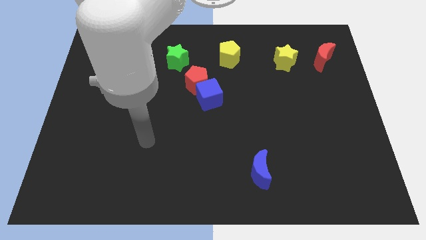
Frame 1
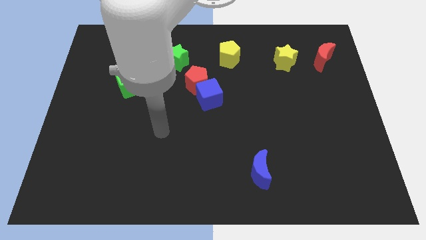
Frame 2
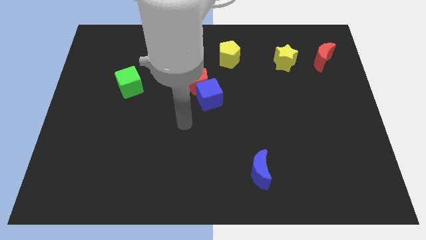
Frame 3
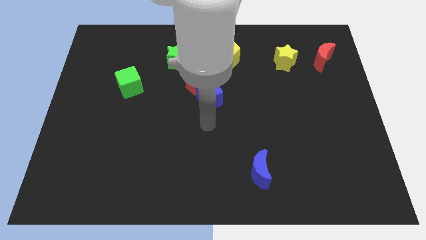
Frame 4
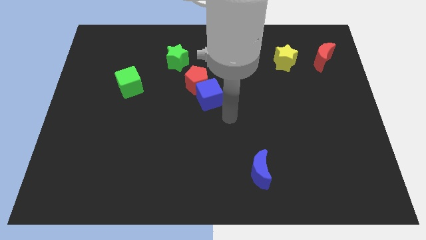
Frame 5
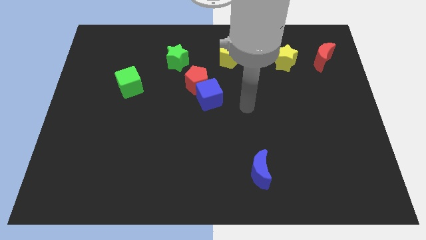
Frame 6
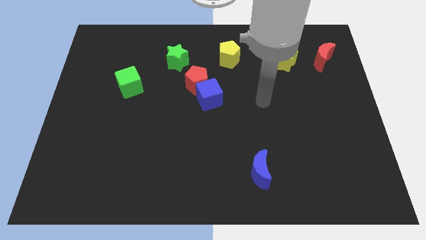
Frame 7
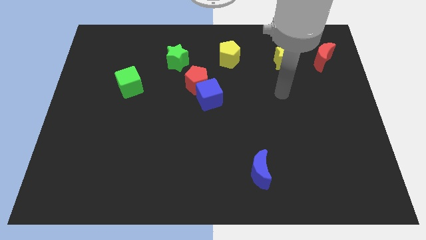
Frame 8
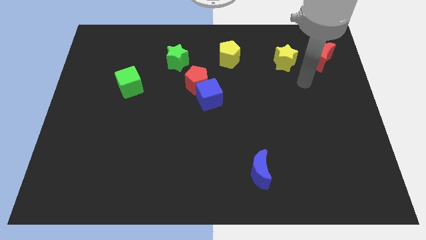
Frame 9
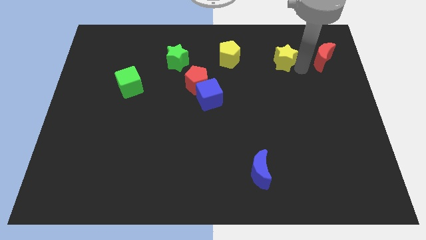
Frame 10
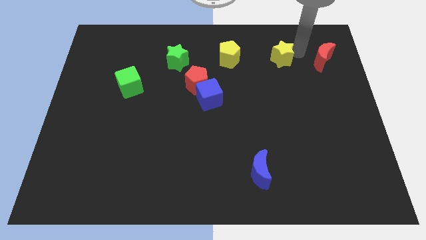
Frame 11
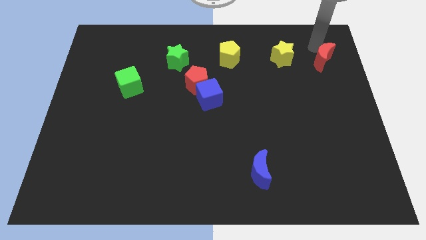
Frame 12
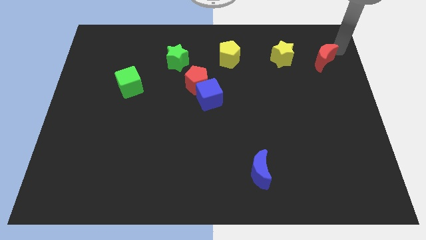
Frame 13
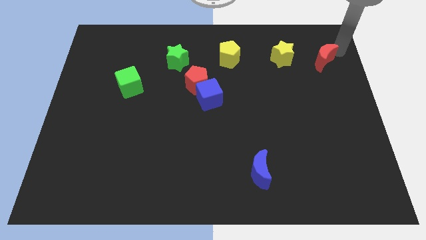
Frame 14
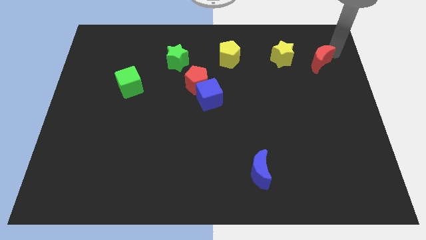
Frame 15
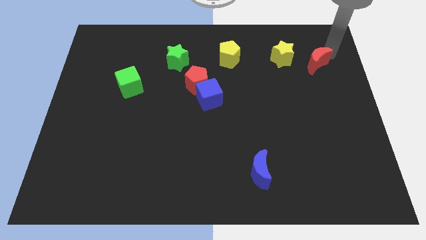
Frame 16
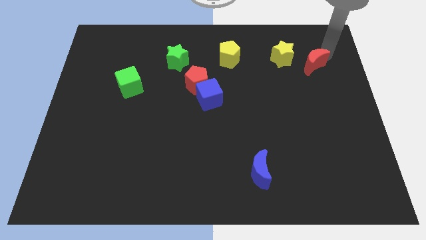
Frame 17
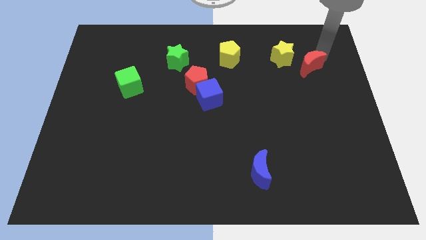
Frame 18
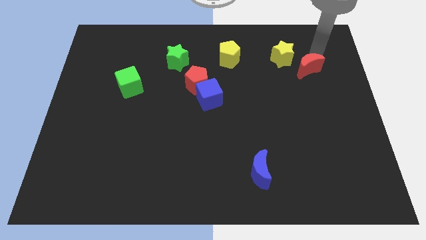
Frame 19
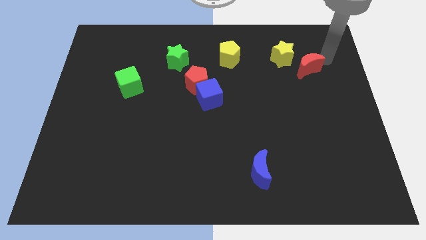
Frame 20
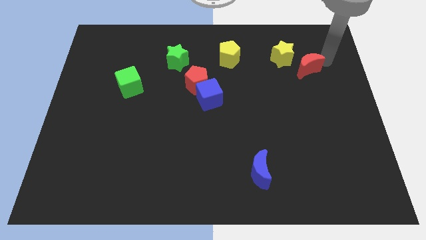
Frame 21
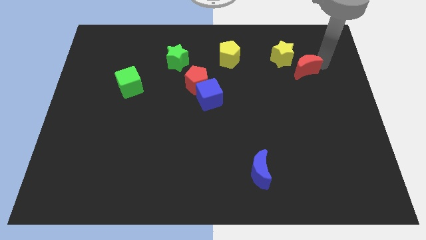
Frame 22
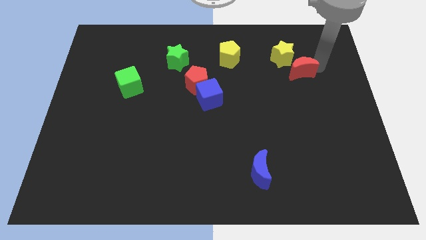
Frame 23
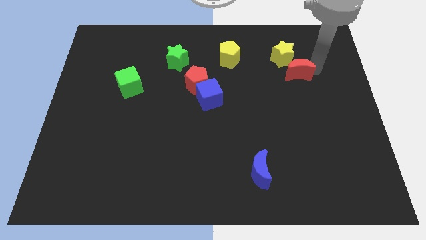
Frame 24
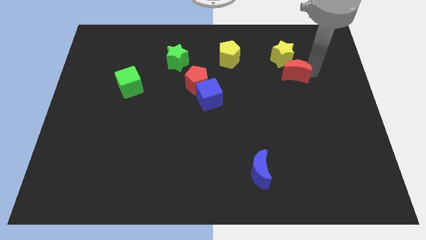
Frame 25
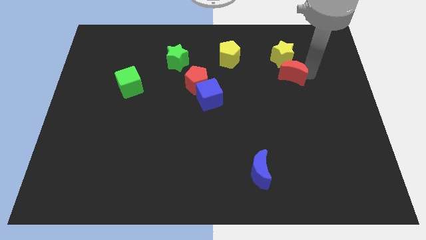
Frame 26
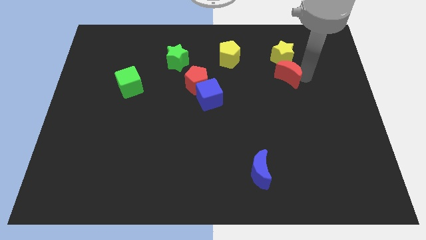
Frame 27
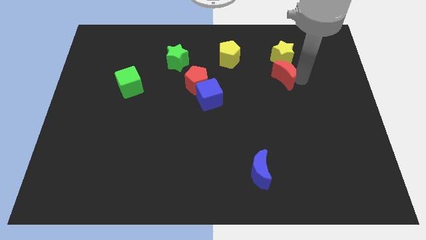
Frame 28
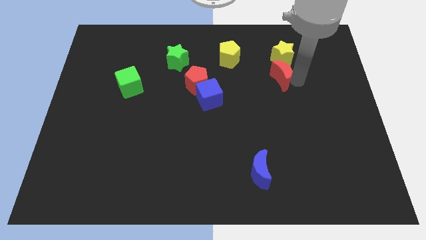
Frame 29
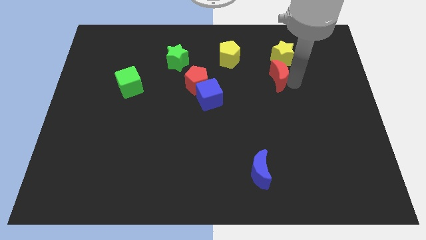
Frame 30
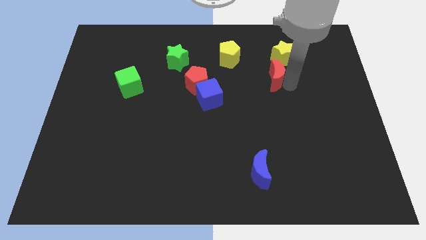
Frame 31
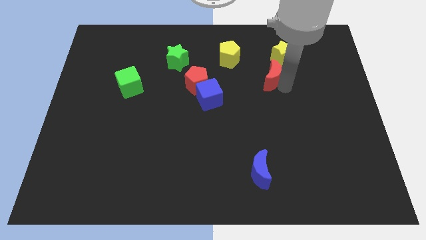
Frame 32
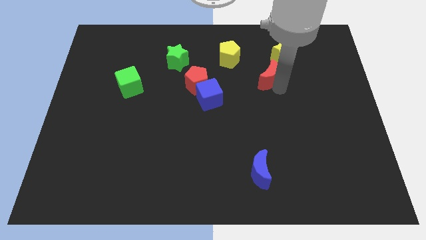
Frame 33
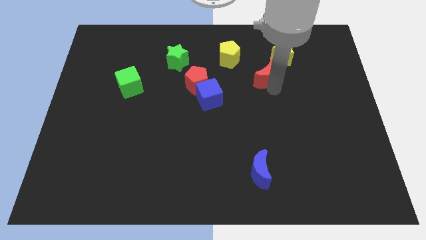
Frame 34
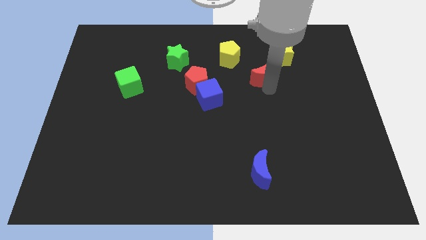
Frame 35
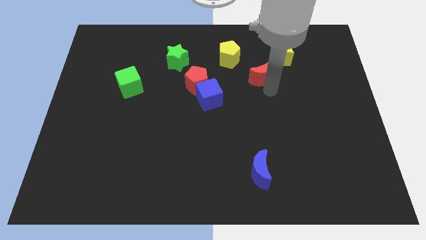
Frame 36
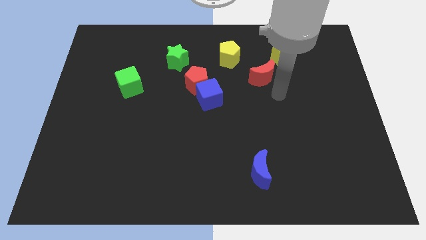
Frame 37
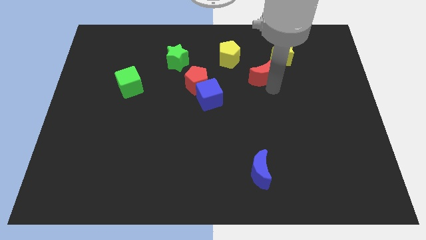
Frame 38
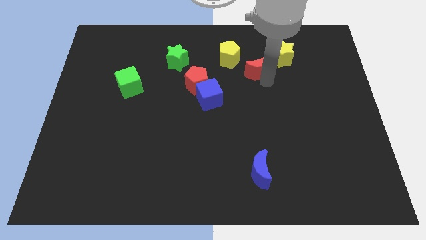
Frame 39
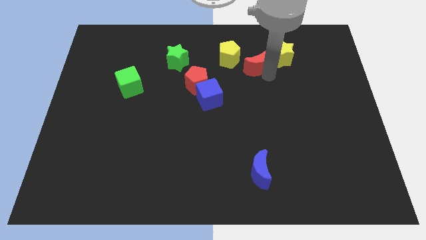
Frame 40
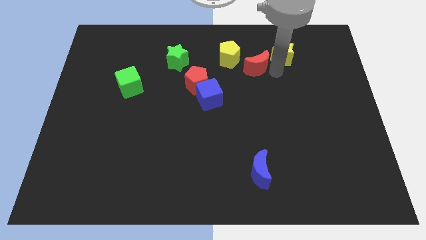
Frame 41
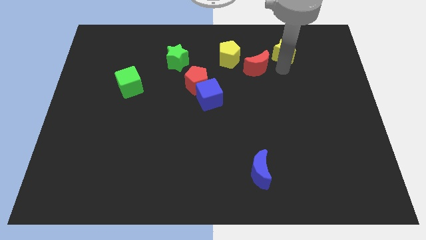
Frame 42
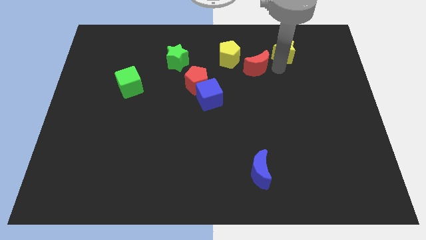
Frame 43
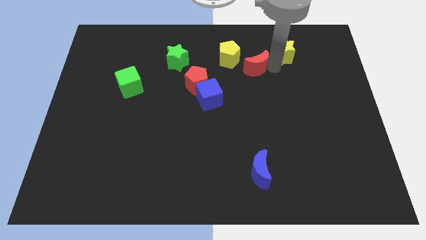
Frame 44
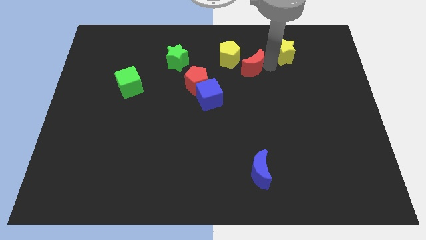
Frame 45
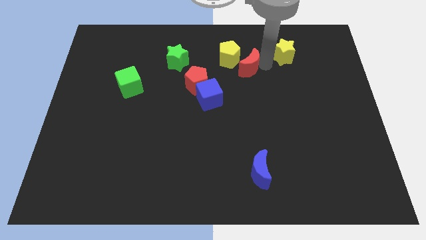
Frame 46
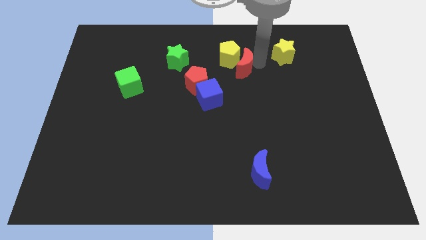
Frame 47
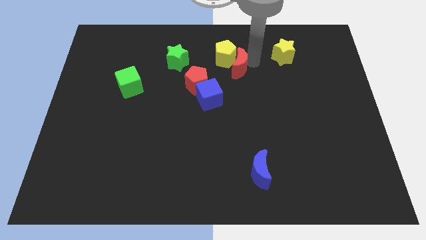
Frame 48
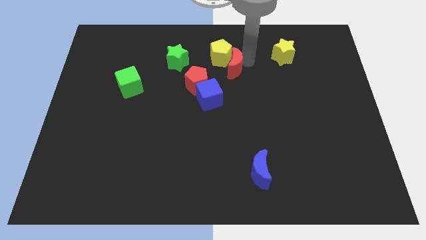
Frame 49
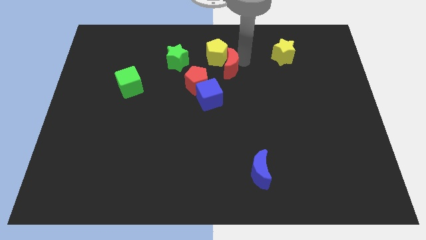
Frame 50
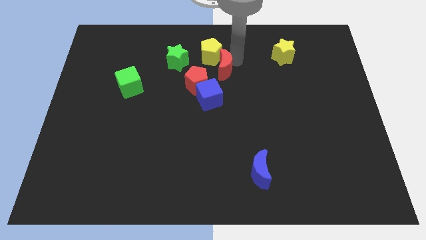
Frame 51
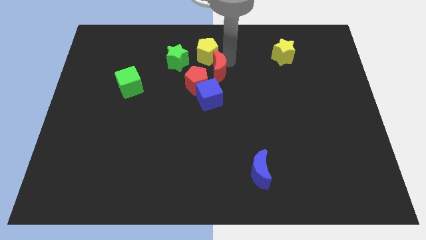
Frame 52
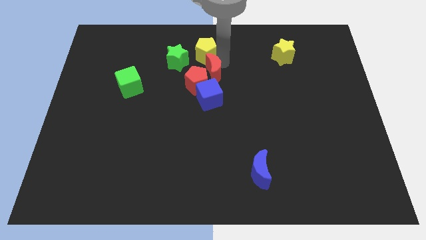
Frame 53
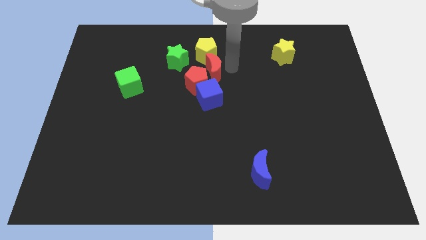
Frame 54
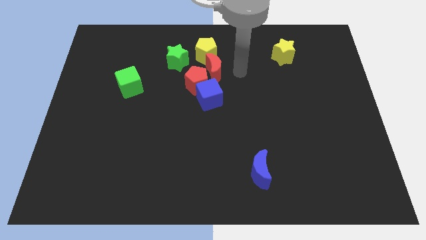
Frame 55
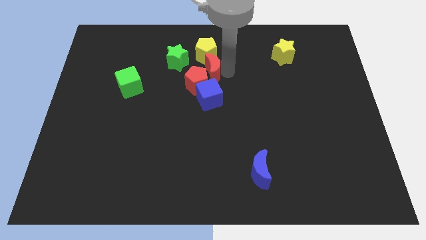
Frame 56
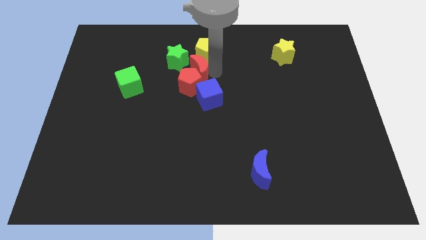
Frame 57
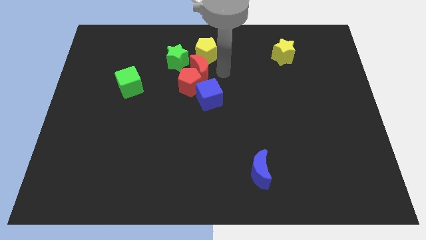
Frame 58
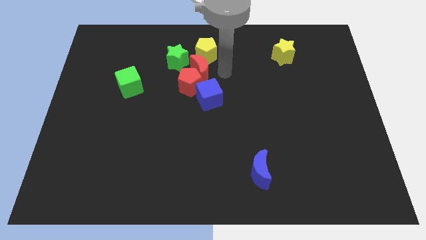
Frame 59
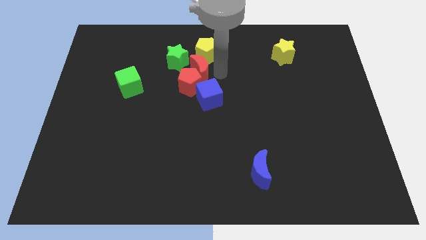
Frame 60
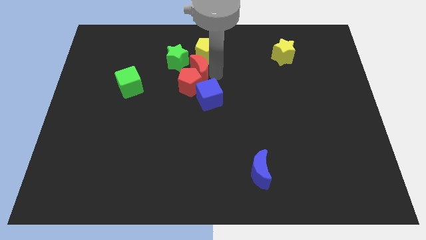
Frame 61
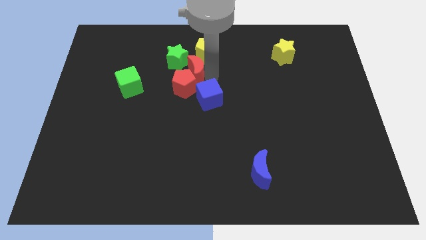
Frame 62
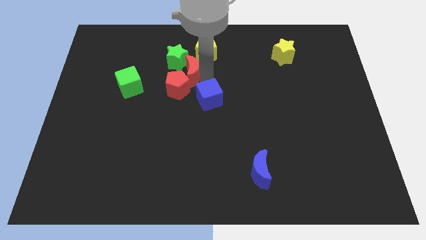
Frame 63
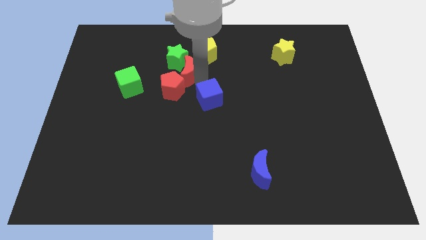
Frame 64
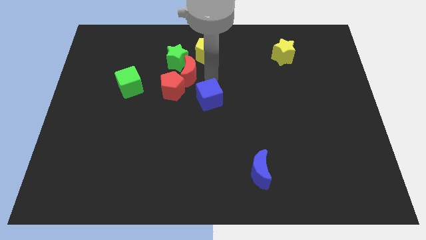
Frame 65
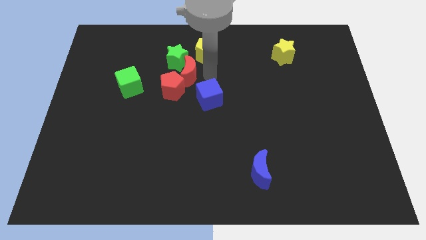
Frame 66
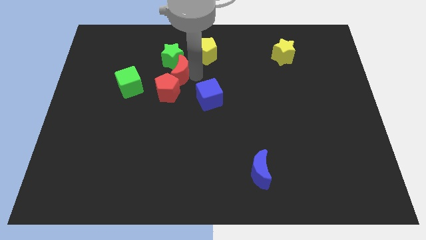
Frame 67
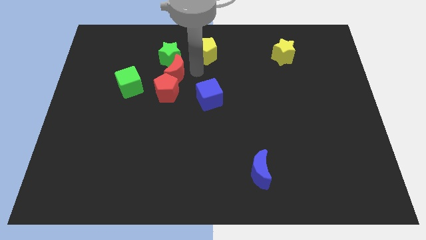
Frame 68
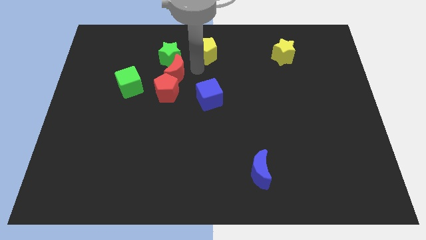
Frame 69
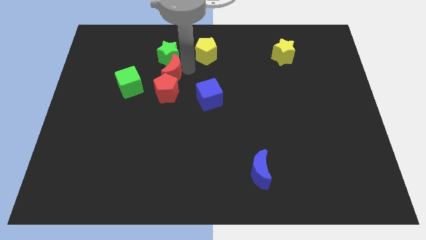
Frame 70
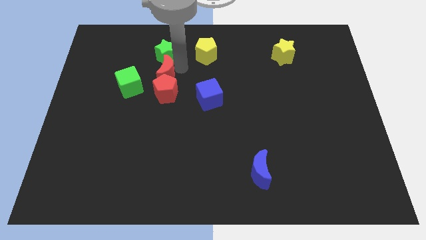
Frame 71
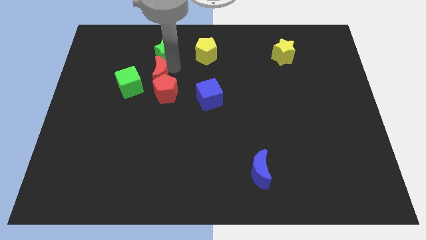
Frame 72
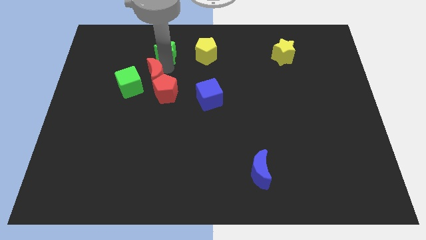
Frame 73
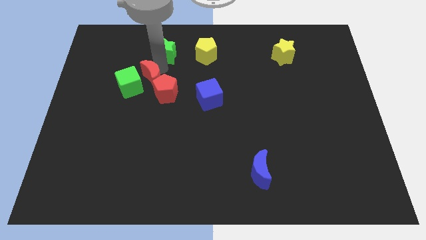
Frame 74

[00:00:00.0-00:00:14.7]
put the red moon close to the green cube
